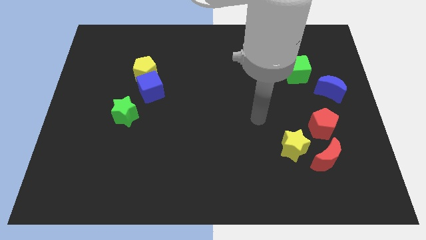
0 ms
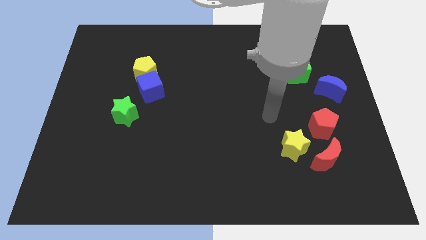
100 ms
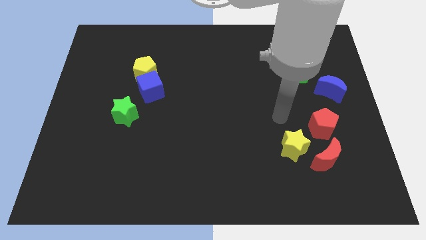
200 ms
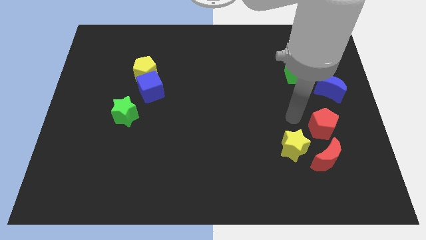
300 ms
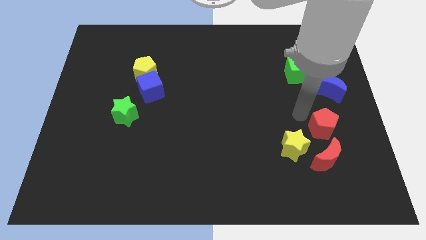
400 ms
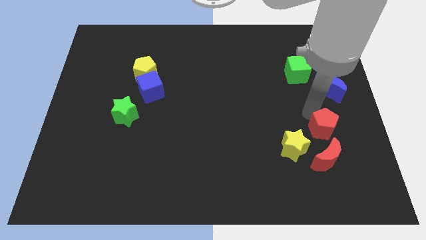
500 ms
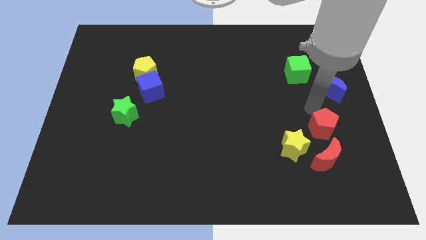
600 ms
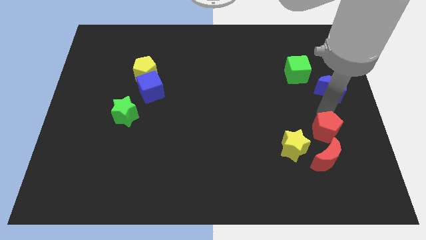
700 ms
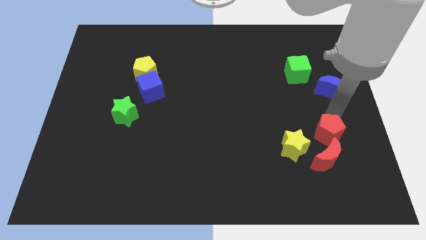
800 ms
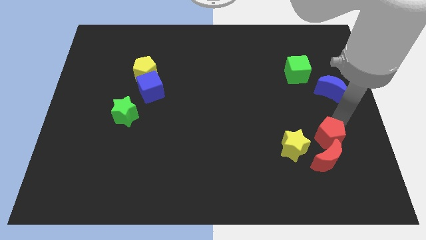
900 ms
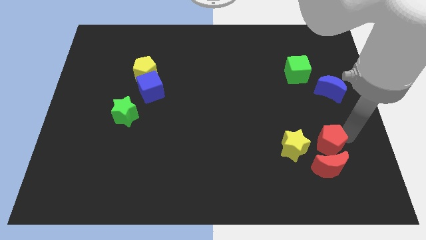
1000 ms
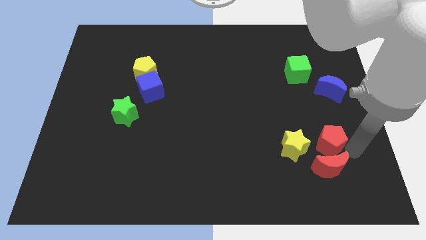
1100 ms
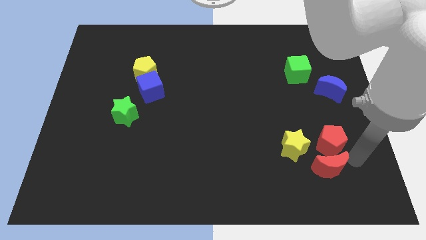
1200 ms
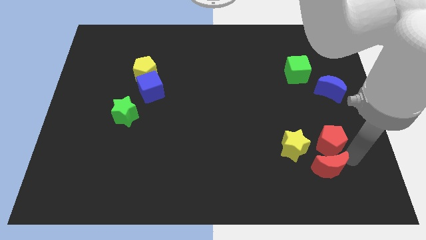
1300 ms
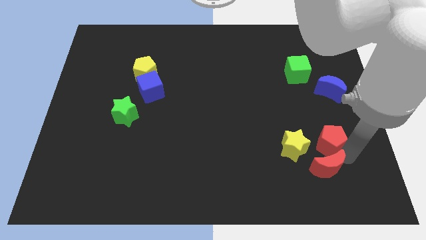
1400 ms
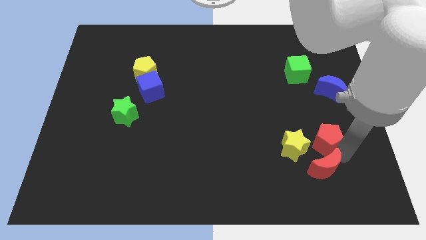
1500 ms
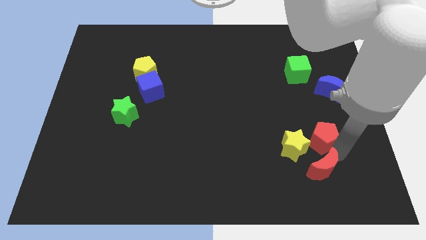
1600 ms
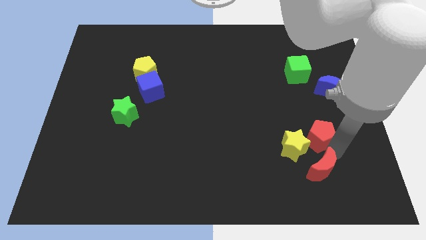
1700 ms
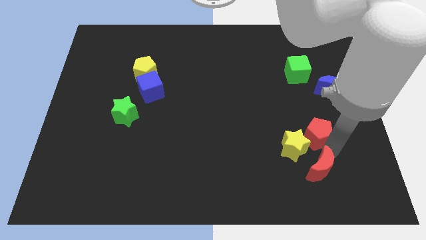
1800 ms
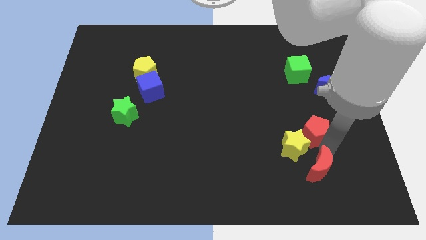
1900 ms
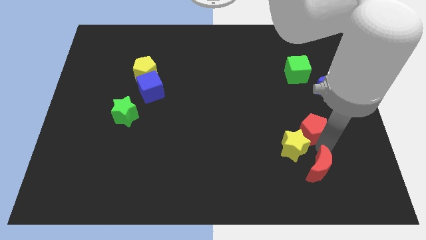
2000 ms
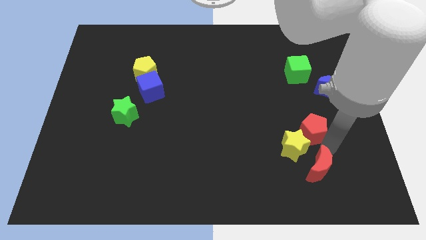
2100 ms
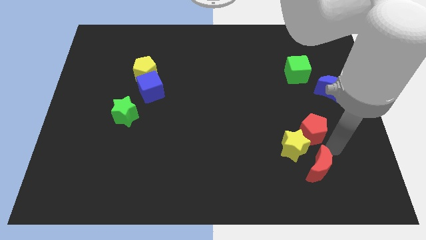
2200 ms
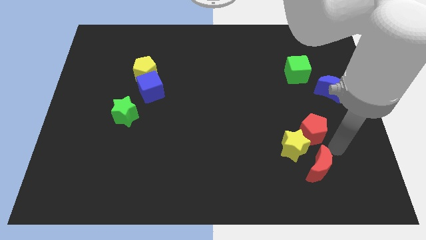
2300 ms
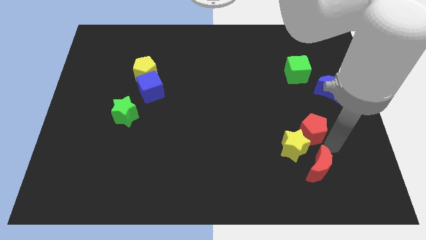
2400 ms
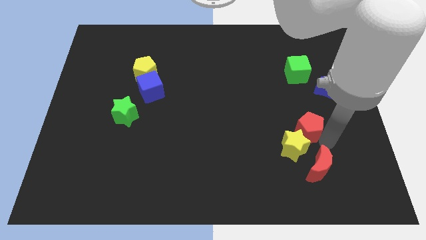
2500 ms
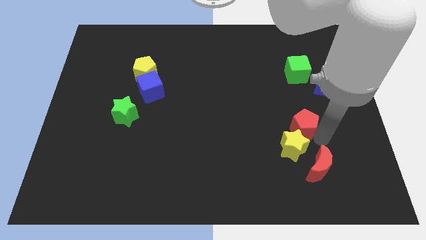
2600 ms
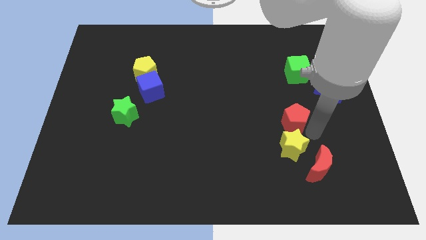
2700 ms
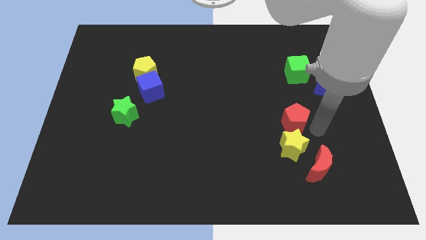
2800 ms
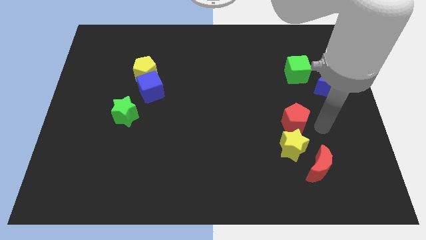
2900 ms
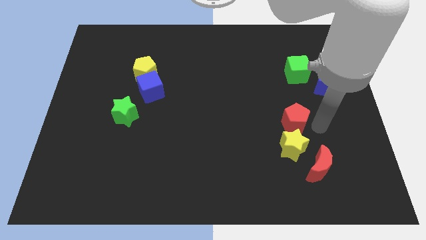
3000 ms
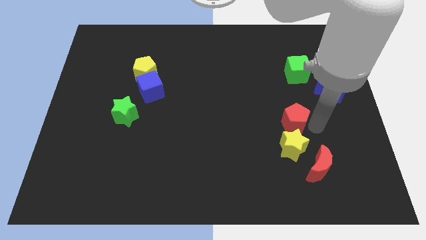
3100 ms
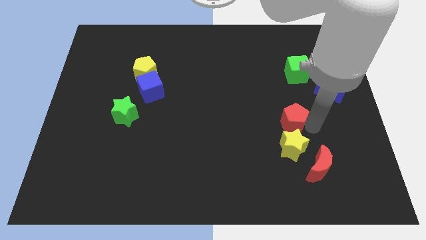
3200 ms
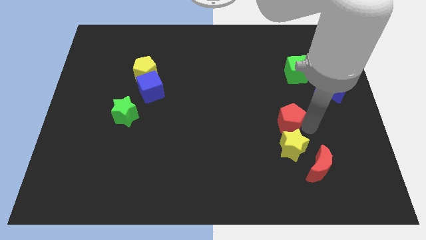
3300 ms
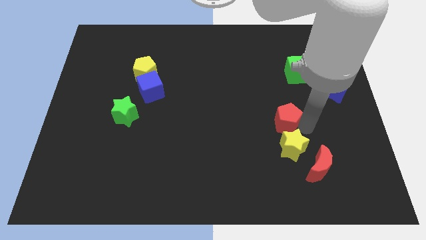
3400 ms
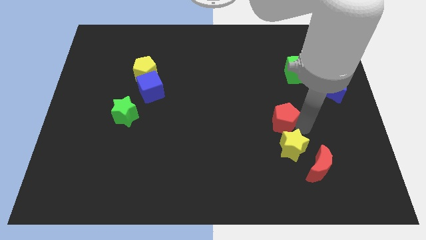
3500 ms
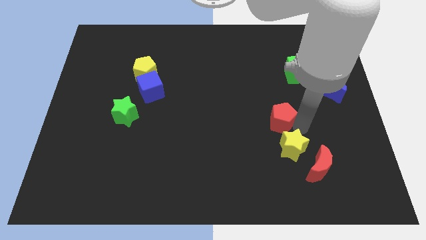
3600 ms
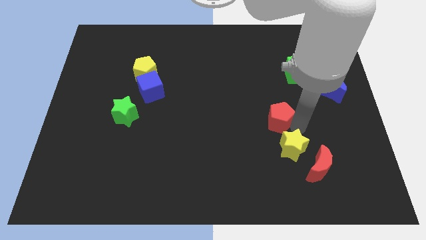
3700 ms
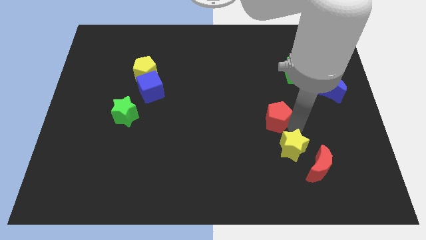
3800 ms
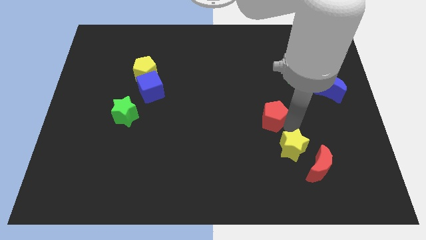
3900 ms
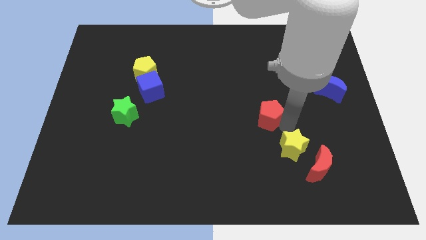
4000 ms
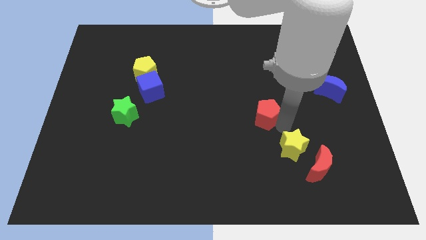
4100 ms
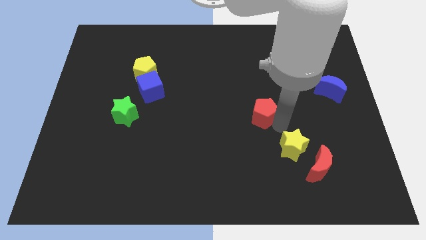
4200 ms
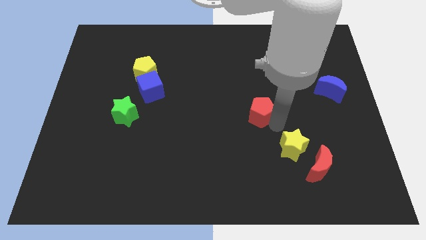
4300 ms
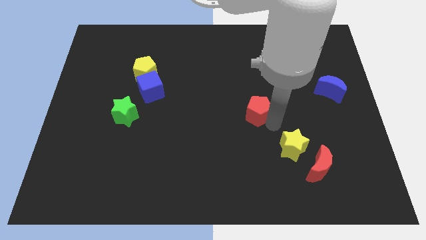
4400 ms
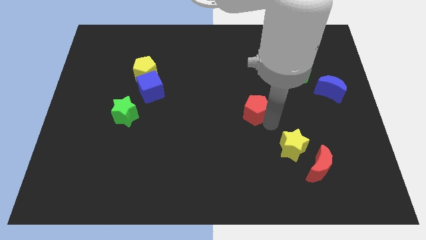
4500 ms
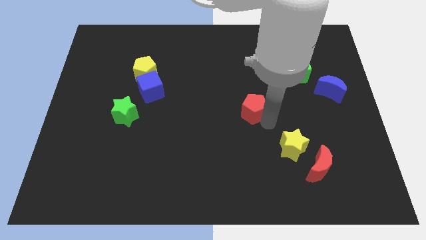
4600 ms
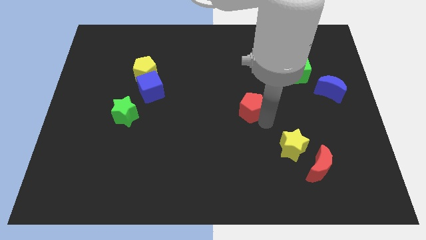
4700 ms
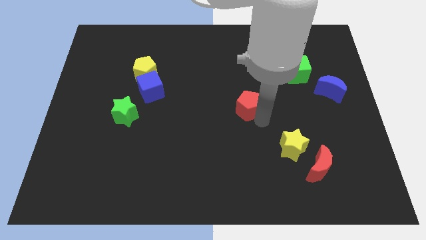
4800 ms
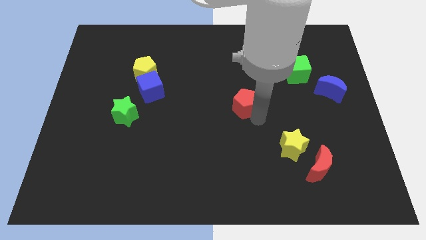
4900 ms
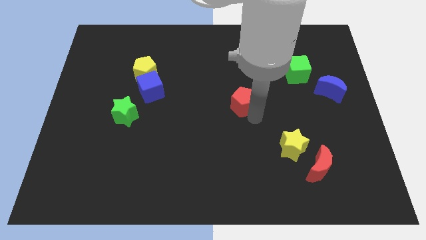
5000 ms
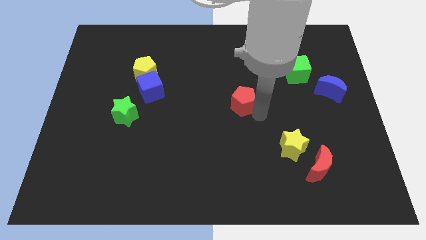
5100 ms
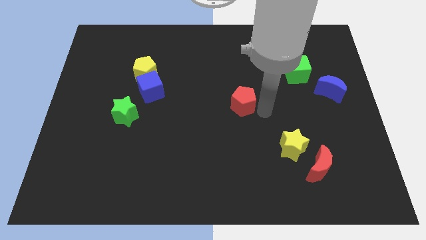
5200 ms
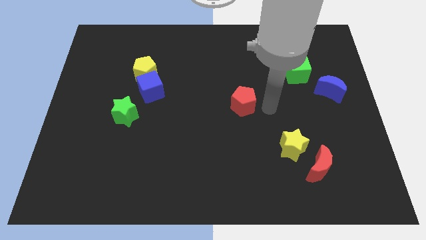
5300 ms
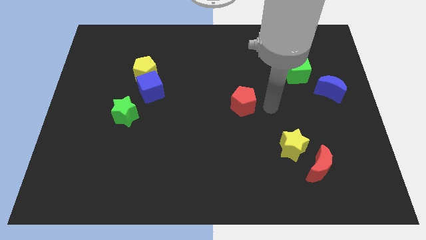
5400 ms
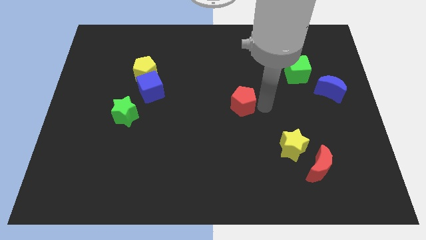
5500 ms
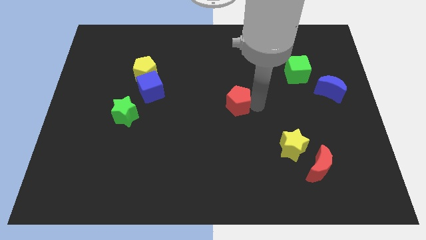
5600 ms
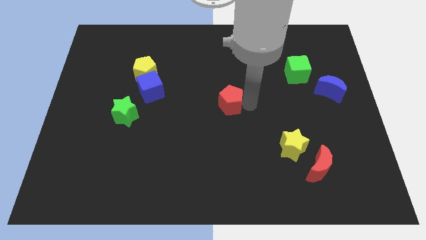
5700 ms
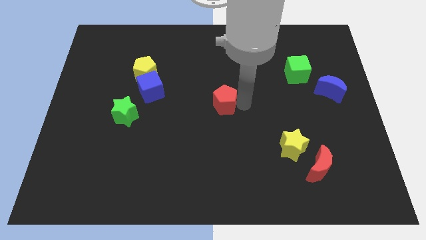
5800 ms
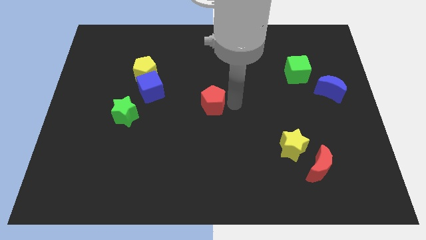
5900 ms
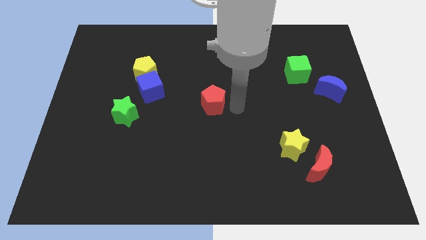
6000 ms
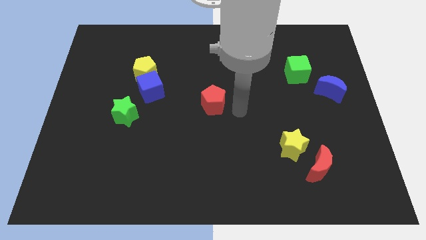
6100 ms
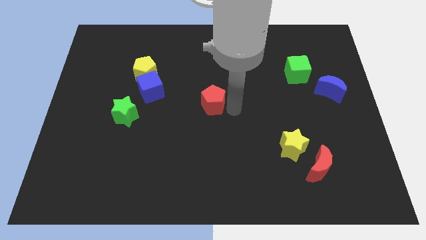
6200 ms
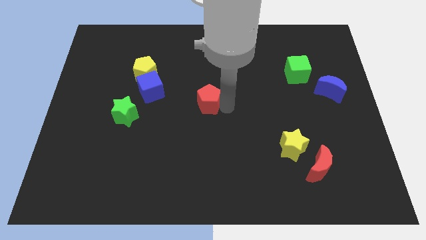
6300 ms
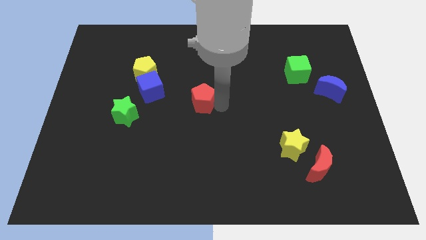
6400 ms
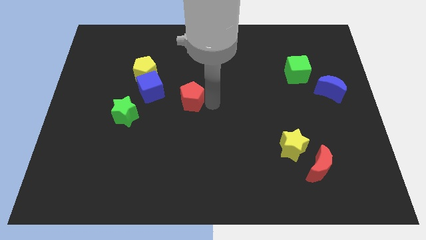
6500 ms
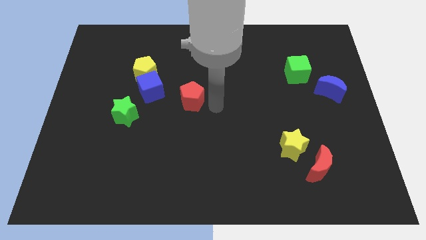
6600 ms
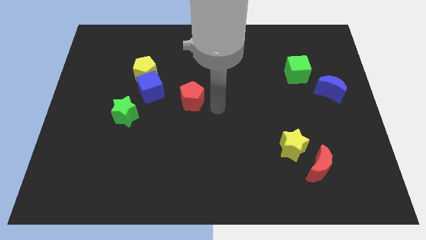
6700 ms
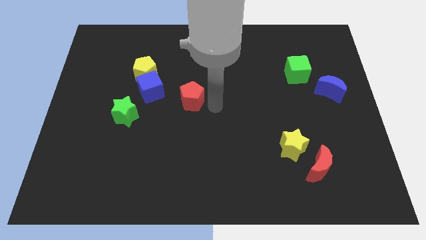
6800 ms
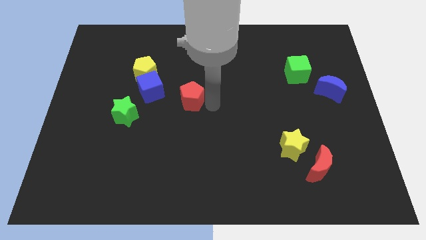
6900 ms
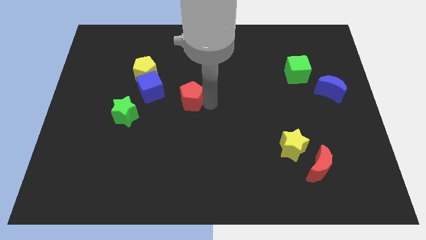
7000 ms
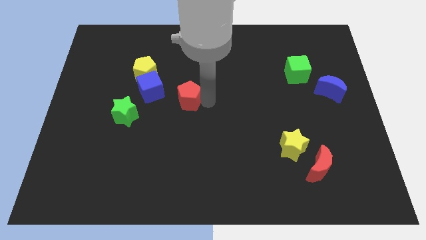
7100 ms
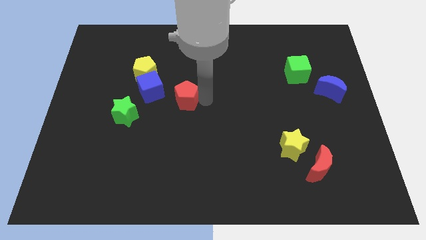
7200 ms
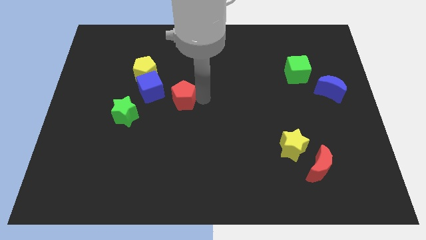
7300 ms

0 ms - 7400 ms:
push the red pentagon diagonally down and to the right of the yellow pentagon
